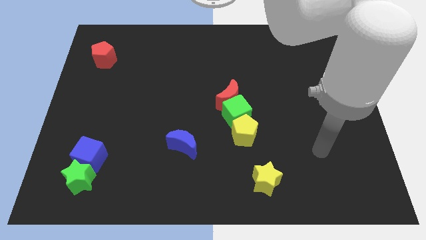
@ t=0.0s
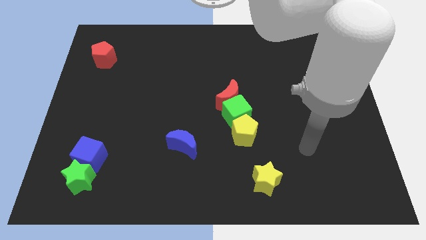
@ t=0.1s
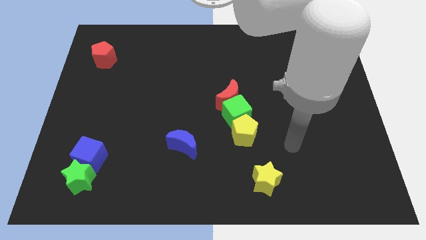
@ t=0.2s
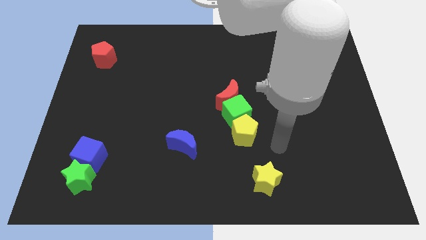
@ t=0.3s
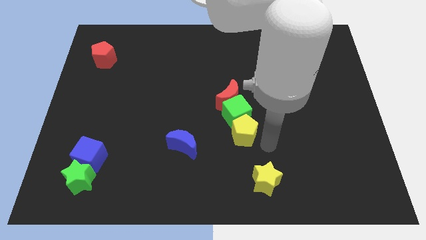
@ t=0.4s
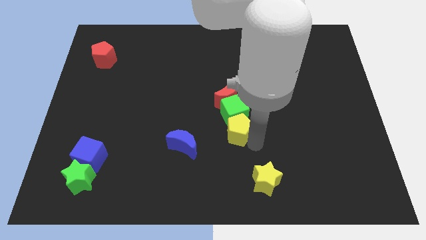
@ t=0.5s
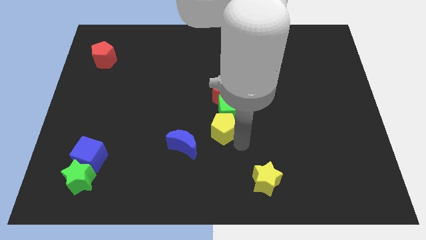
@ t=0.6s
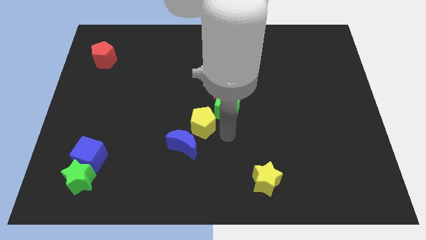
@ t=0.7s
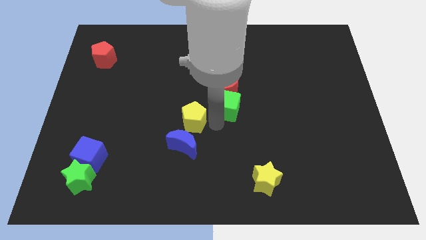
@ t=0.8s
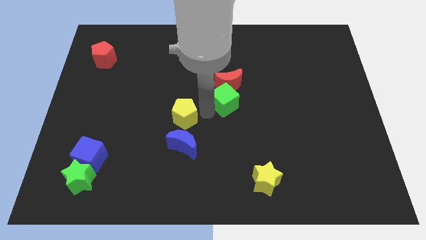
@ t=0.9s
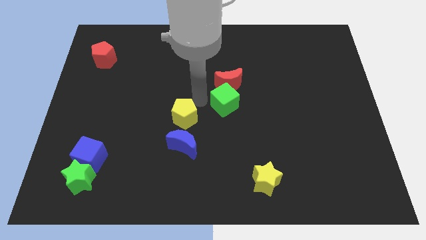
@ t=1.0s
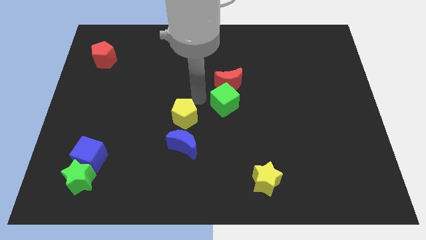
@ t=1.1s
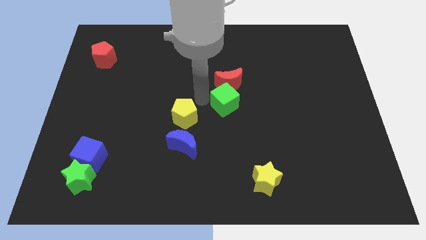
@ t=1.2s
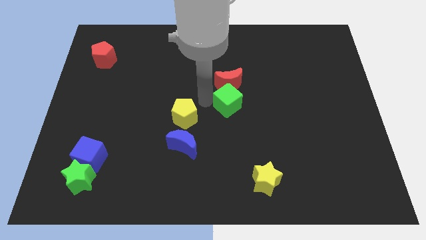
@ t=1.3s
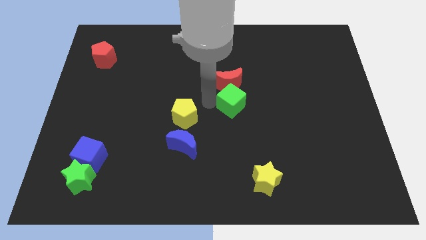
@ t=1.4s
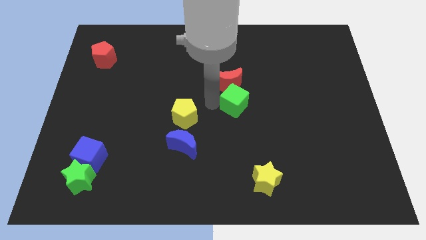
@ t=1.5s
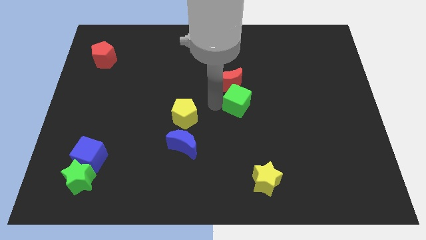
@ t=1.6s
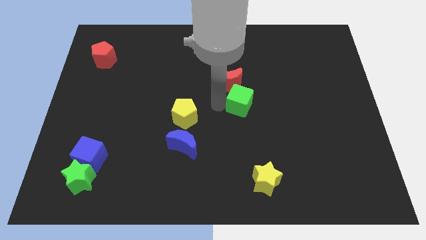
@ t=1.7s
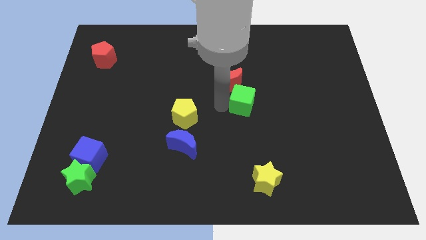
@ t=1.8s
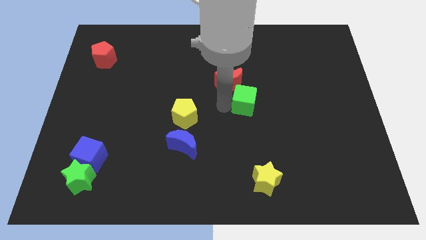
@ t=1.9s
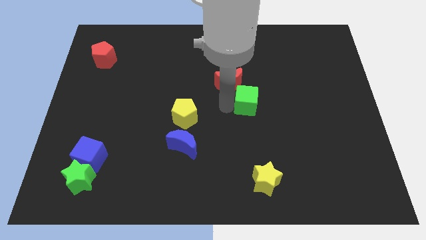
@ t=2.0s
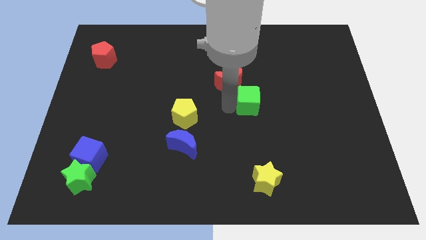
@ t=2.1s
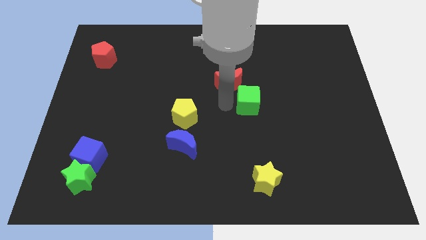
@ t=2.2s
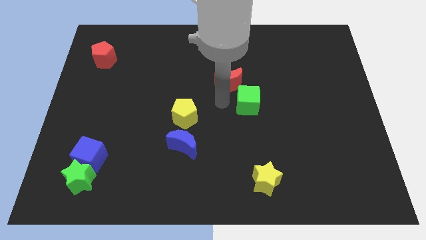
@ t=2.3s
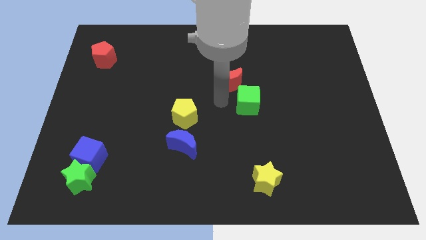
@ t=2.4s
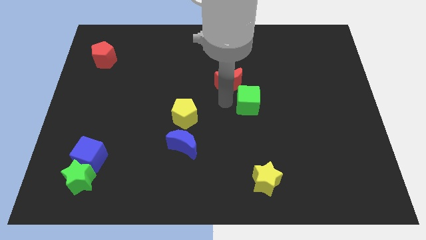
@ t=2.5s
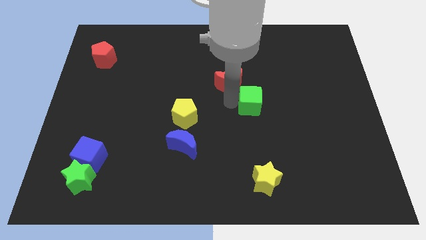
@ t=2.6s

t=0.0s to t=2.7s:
move the green cube away from the red moon and yellow pentagon

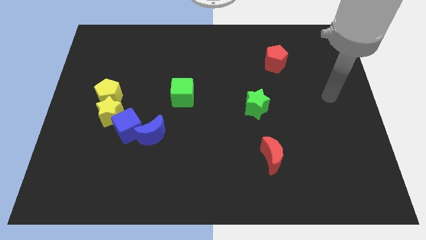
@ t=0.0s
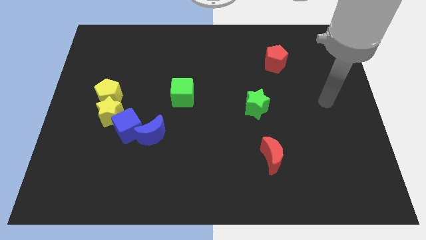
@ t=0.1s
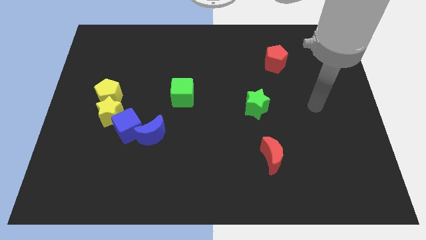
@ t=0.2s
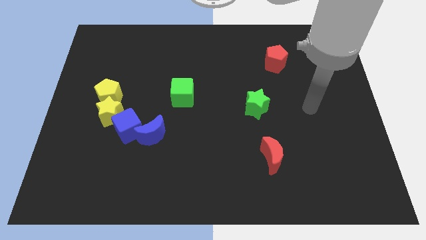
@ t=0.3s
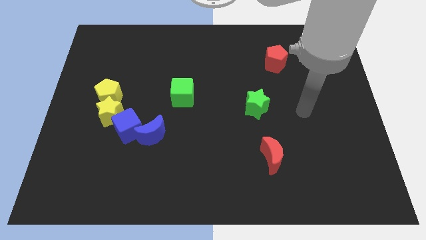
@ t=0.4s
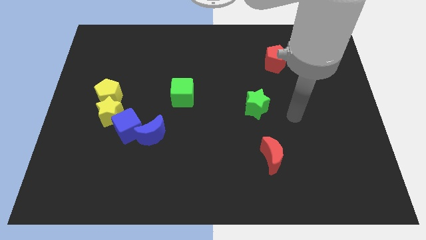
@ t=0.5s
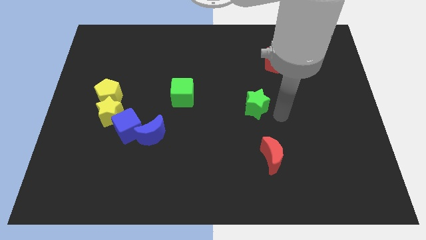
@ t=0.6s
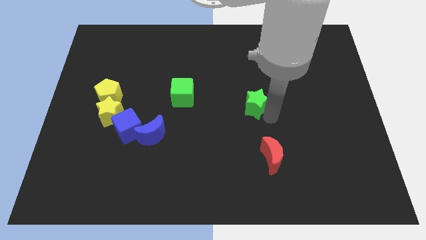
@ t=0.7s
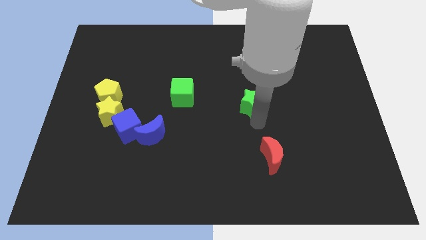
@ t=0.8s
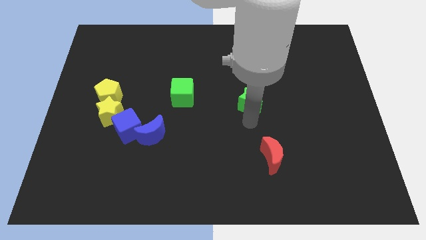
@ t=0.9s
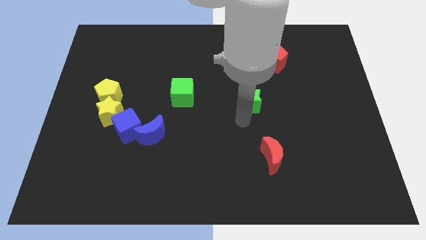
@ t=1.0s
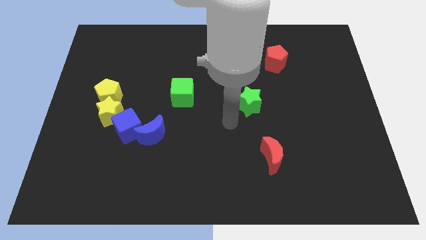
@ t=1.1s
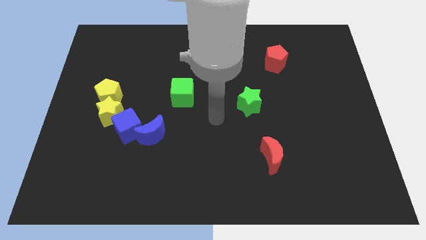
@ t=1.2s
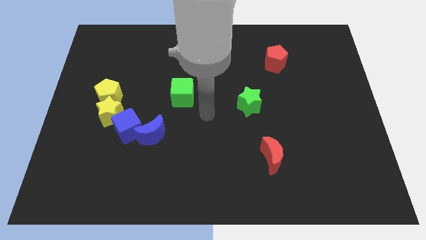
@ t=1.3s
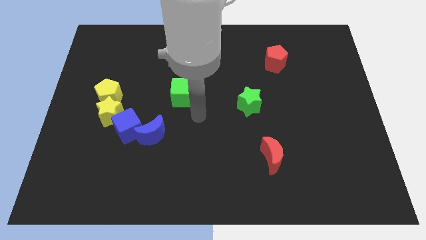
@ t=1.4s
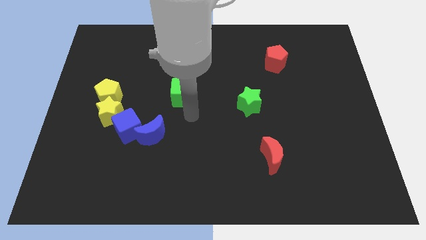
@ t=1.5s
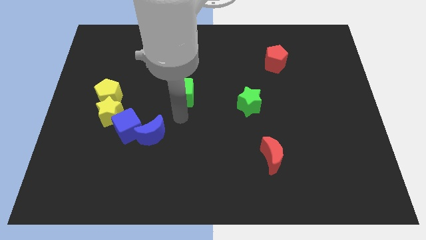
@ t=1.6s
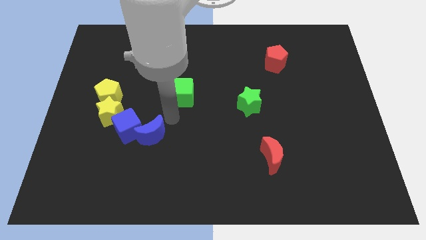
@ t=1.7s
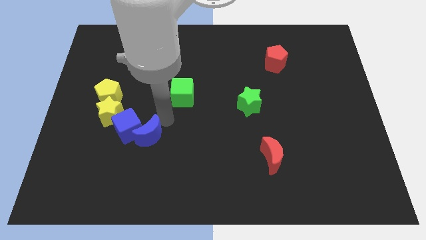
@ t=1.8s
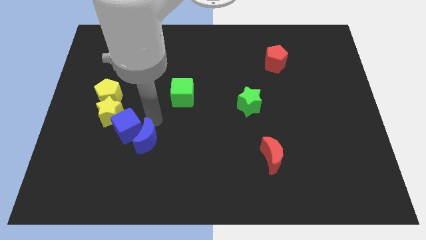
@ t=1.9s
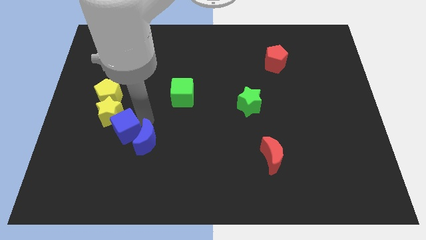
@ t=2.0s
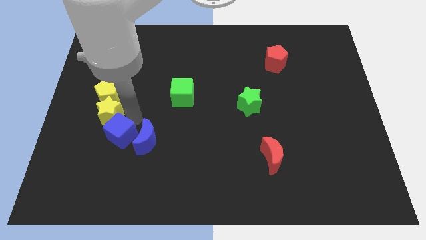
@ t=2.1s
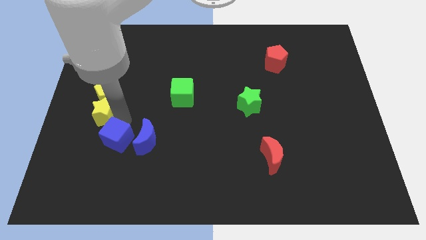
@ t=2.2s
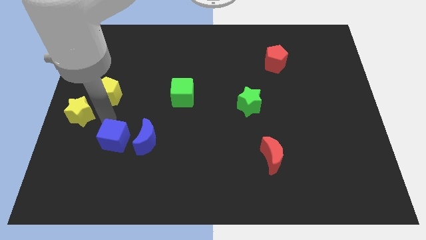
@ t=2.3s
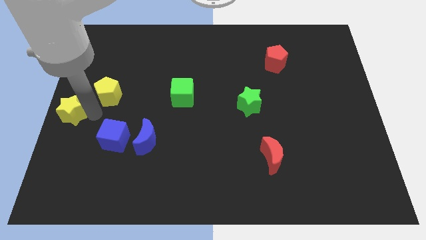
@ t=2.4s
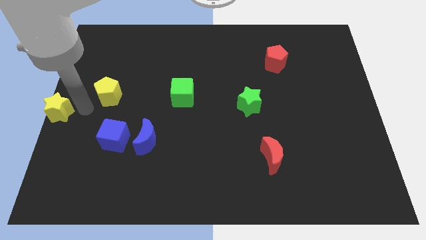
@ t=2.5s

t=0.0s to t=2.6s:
move the yellow pentagon away from the yellow star

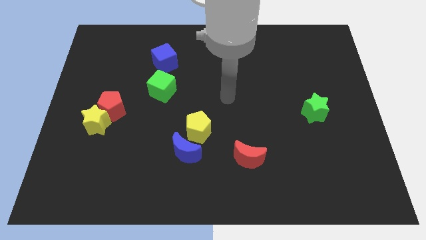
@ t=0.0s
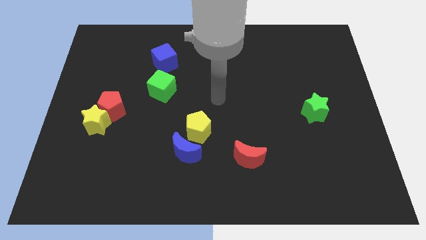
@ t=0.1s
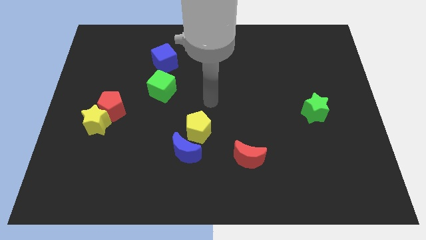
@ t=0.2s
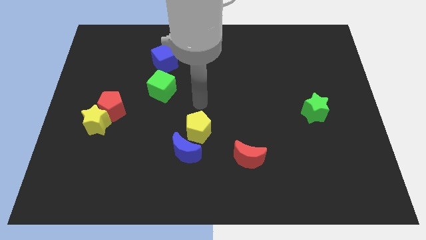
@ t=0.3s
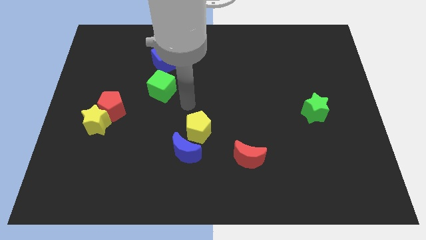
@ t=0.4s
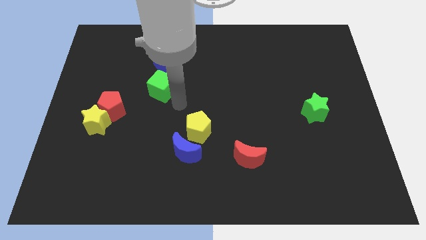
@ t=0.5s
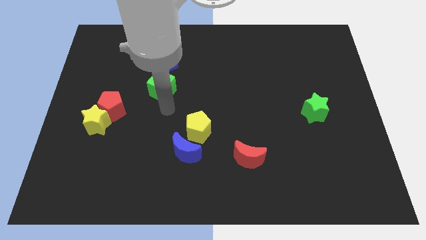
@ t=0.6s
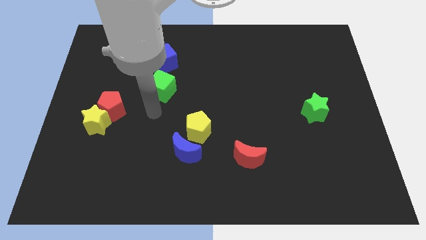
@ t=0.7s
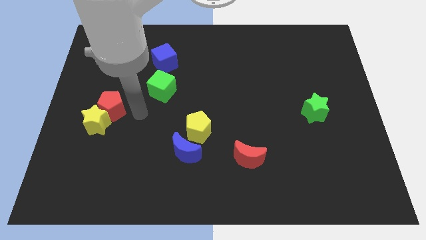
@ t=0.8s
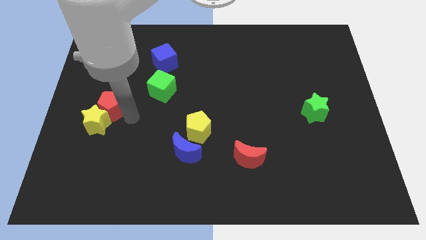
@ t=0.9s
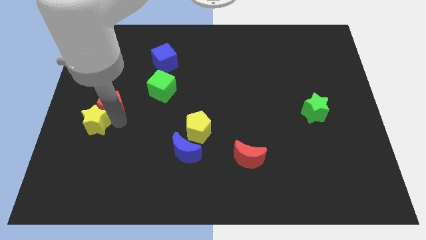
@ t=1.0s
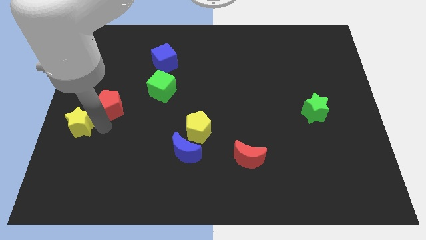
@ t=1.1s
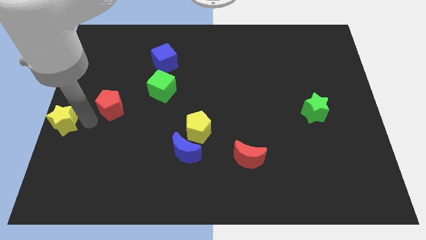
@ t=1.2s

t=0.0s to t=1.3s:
separate the red pentagon from the yellow star

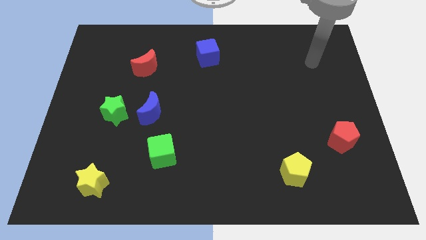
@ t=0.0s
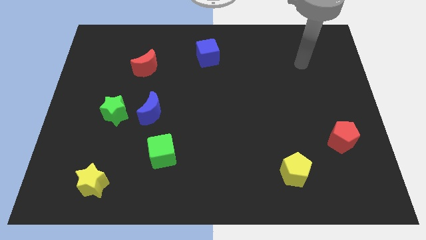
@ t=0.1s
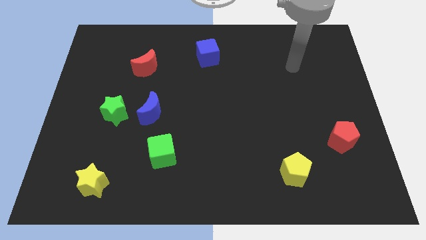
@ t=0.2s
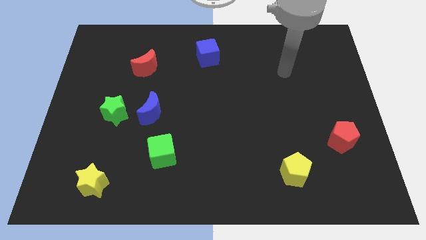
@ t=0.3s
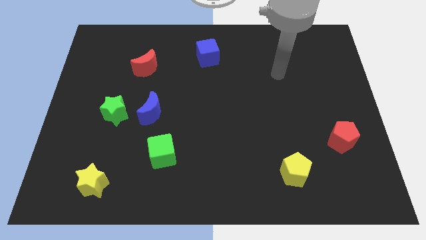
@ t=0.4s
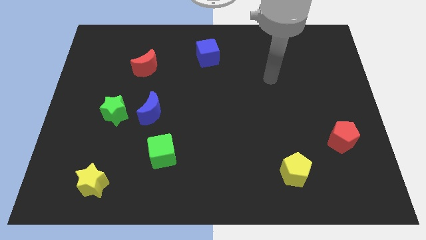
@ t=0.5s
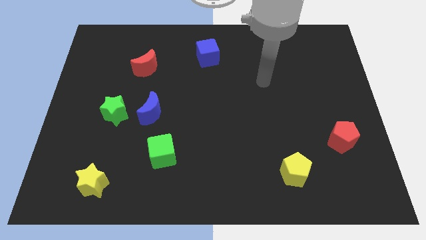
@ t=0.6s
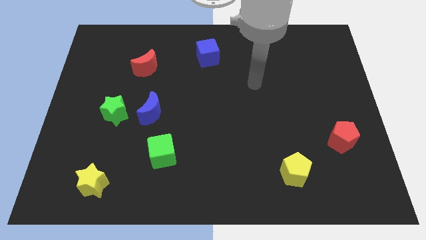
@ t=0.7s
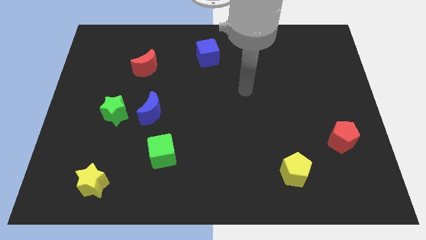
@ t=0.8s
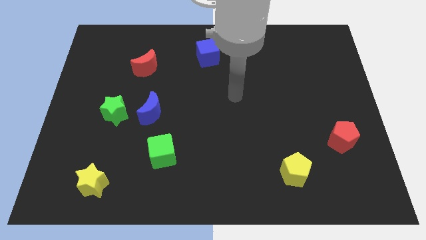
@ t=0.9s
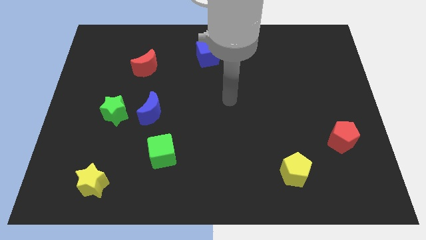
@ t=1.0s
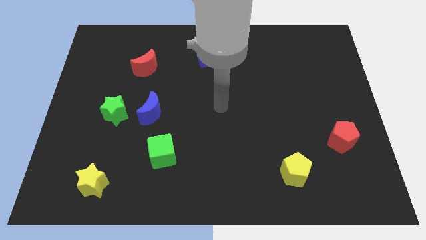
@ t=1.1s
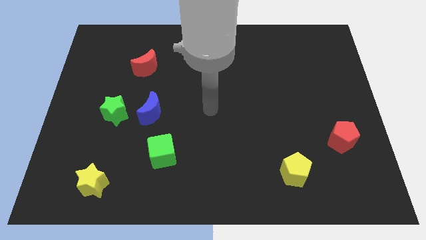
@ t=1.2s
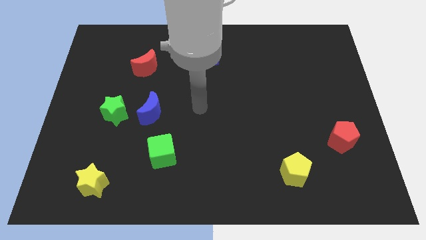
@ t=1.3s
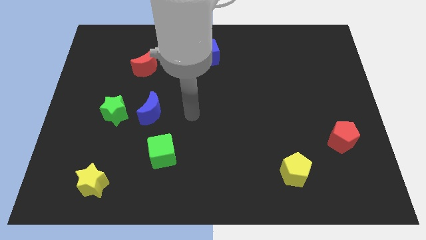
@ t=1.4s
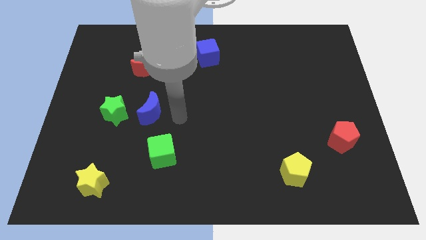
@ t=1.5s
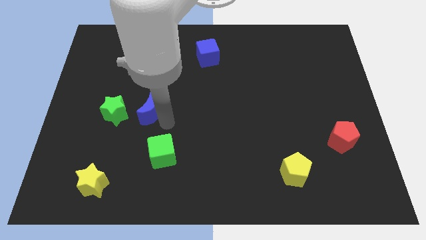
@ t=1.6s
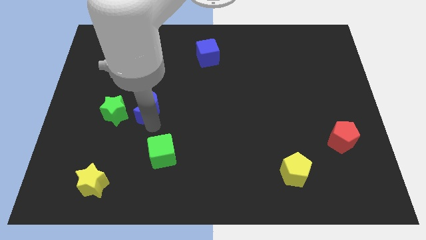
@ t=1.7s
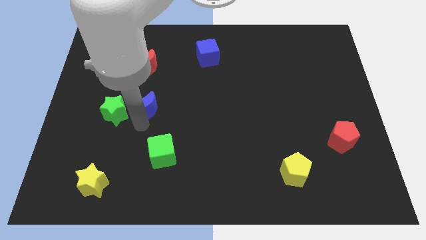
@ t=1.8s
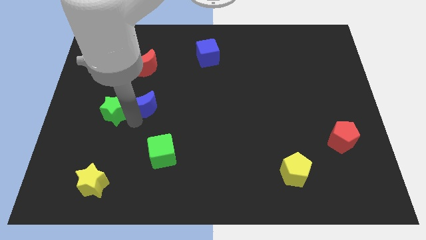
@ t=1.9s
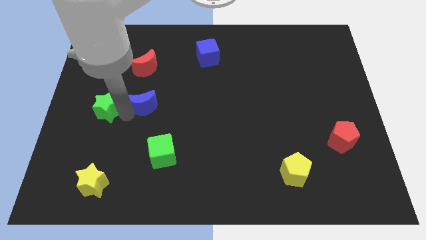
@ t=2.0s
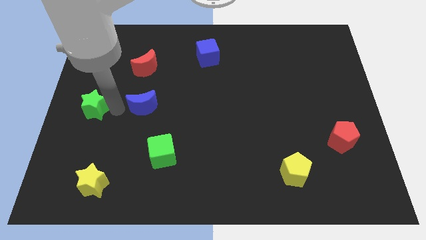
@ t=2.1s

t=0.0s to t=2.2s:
move the blue moon away from the green star

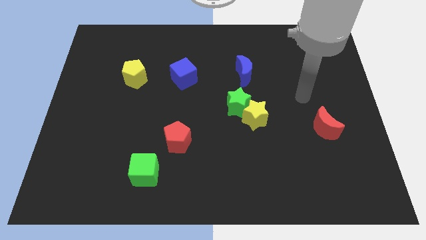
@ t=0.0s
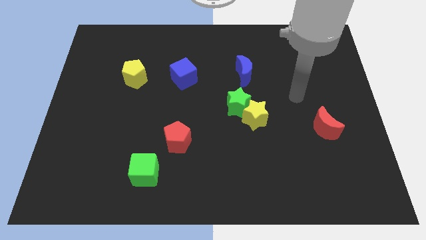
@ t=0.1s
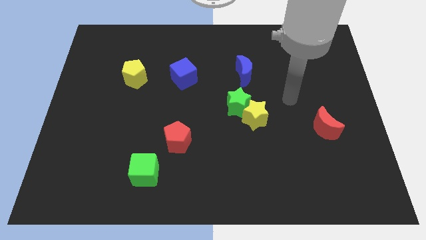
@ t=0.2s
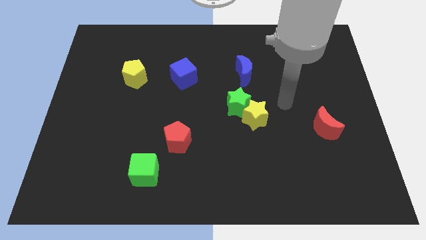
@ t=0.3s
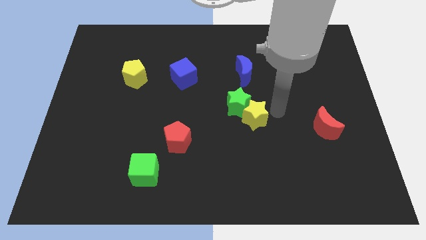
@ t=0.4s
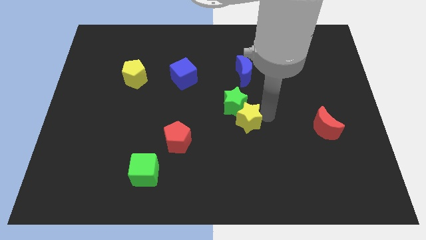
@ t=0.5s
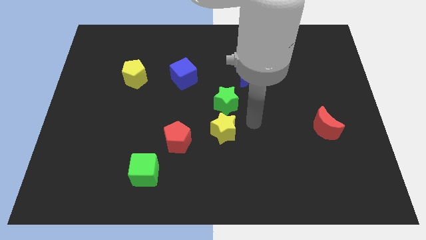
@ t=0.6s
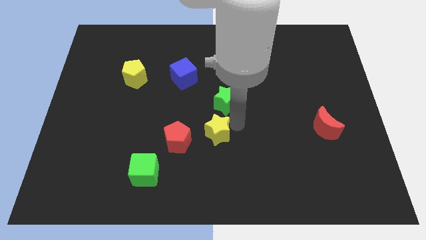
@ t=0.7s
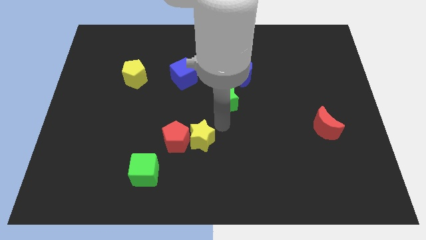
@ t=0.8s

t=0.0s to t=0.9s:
move the green star away from the yellow star
